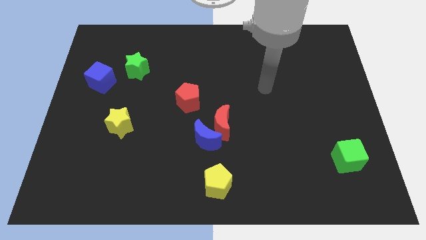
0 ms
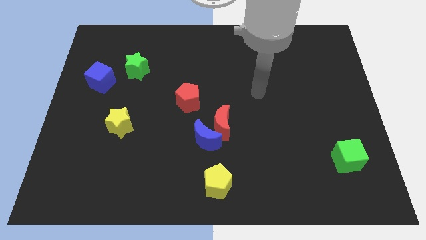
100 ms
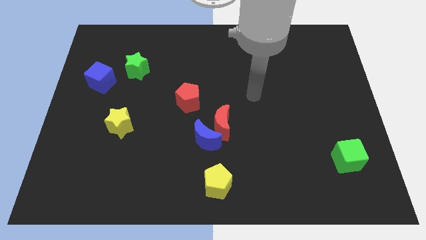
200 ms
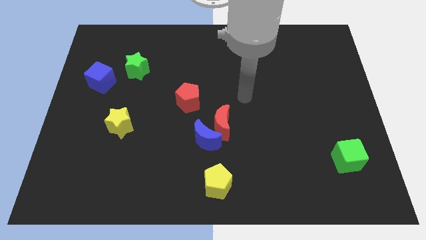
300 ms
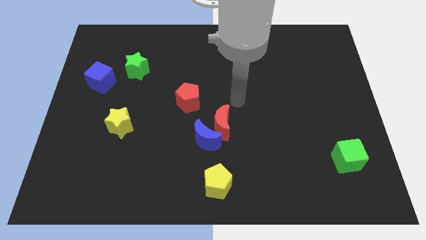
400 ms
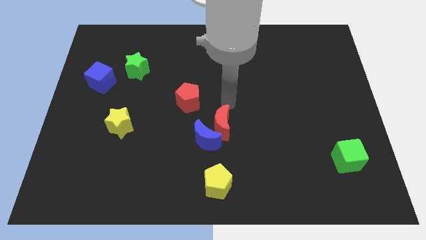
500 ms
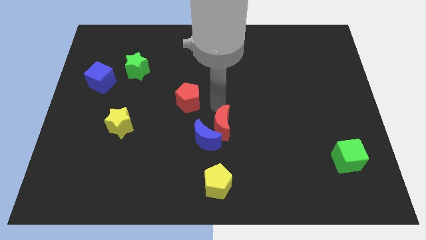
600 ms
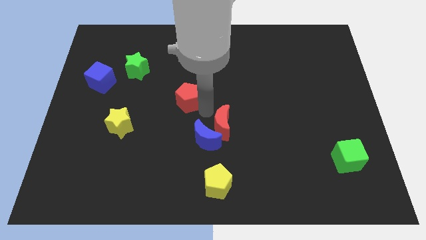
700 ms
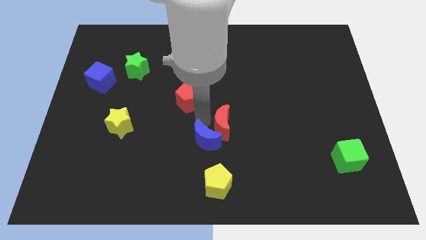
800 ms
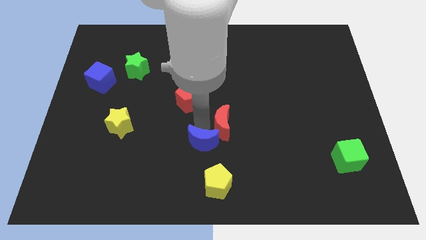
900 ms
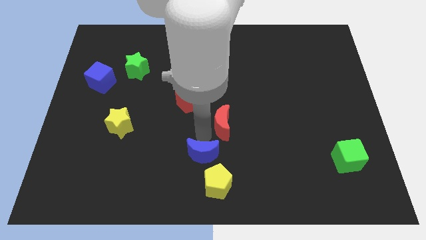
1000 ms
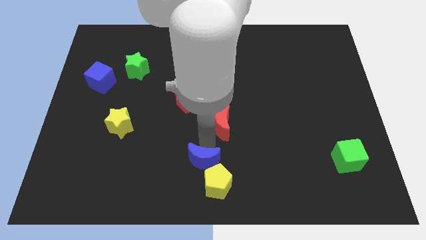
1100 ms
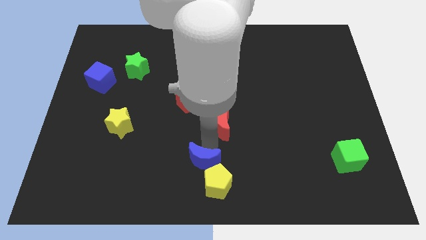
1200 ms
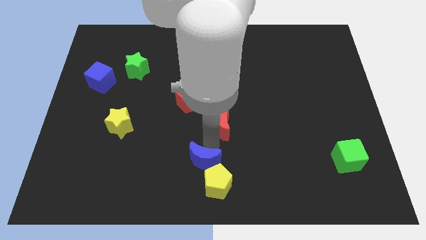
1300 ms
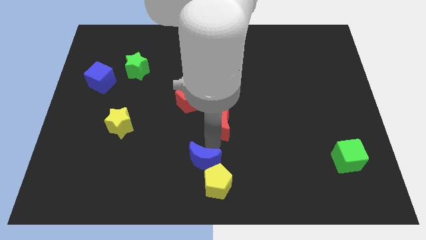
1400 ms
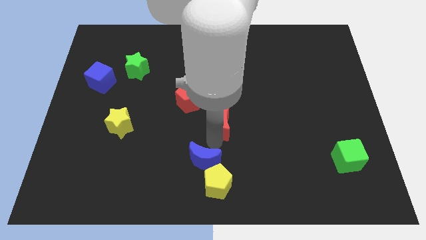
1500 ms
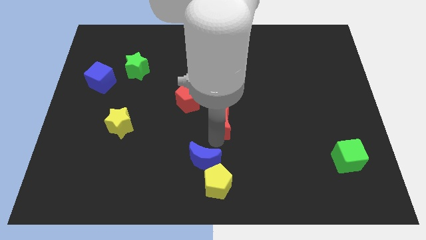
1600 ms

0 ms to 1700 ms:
pull the red moon apart from the blue moon

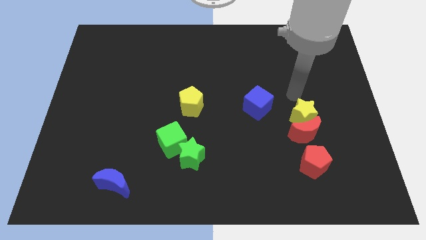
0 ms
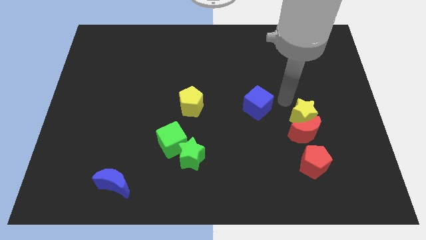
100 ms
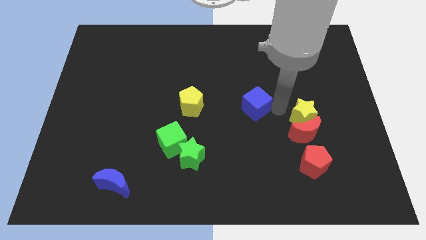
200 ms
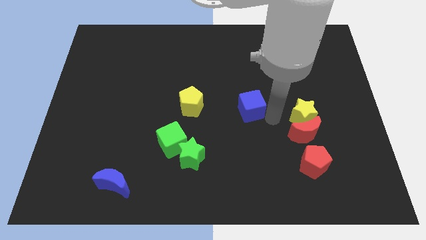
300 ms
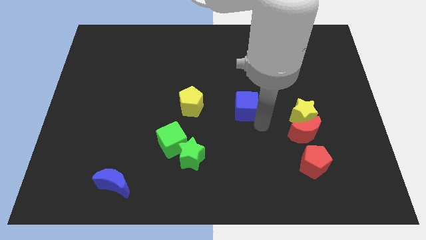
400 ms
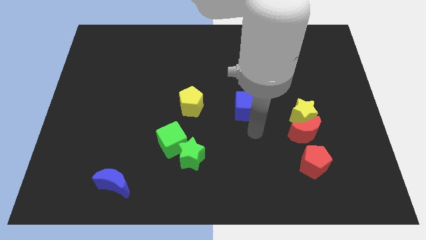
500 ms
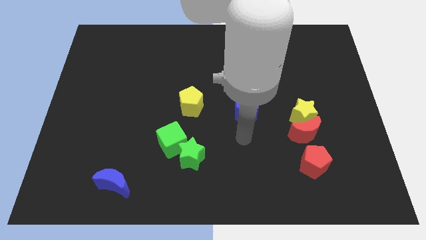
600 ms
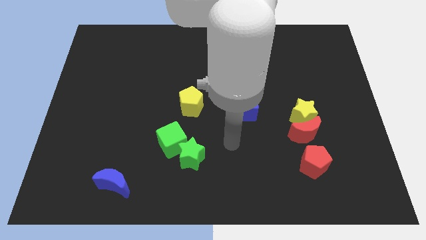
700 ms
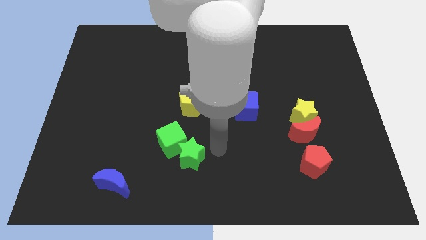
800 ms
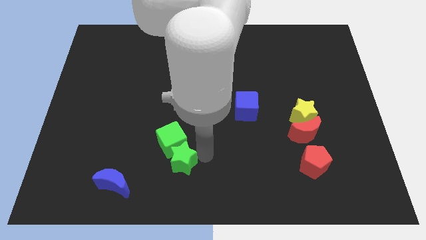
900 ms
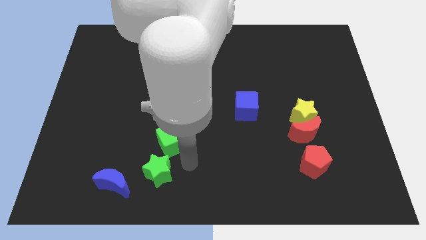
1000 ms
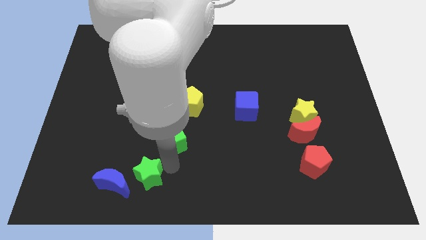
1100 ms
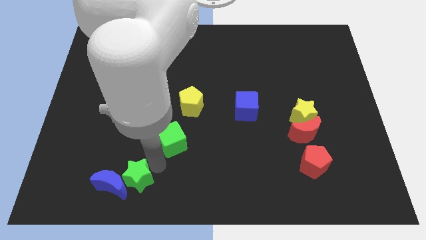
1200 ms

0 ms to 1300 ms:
separate the green cube from the green star

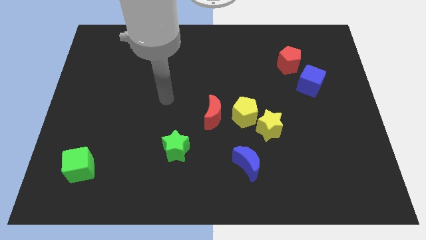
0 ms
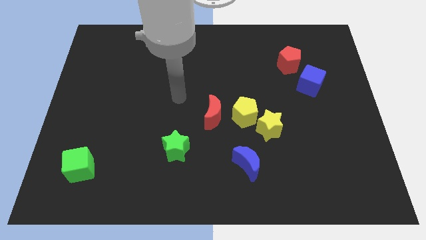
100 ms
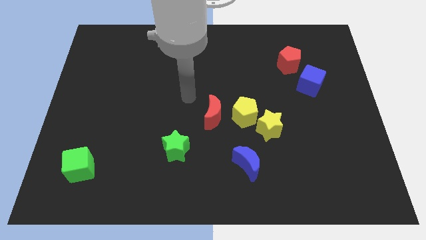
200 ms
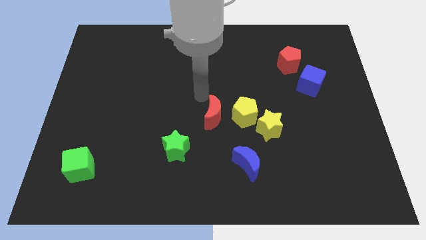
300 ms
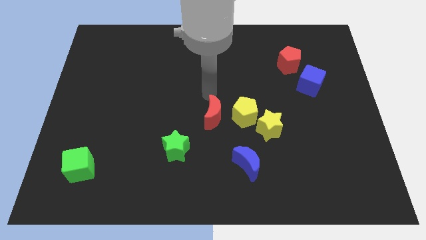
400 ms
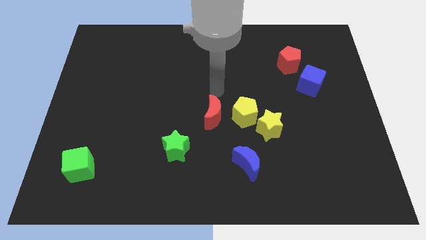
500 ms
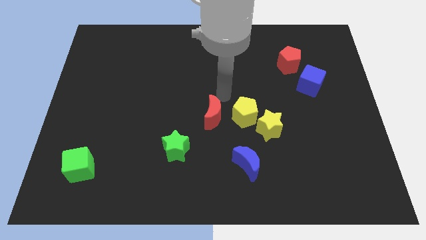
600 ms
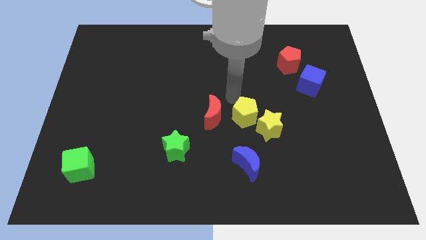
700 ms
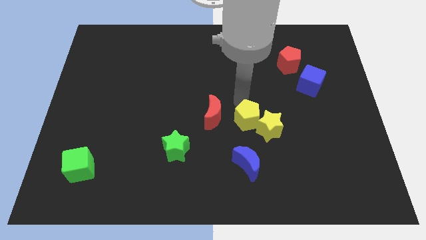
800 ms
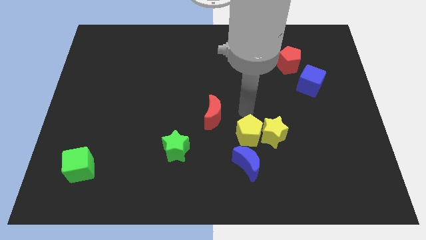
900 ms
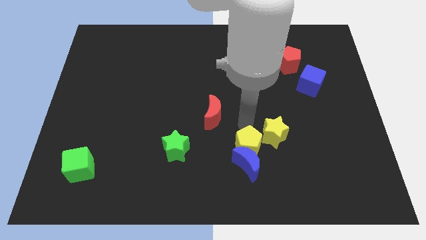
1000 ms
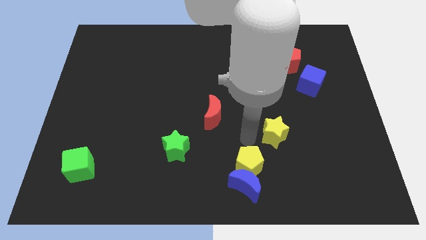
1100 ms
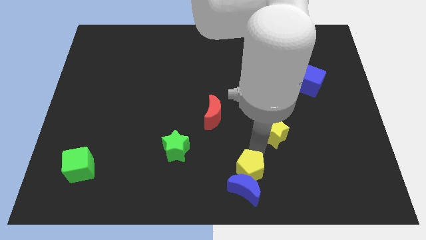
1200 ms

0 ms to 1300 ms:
pull the yellow star apart from the yellow pentagon

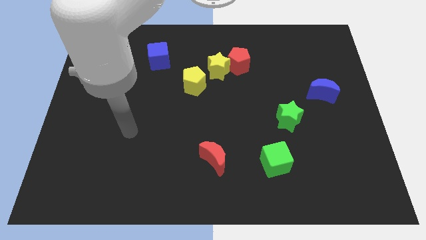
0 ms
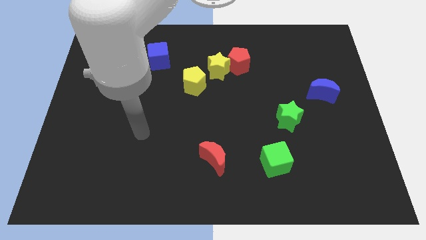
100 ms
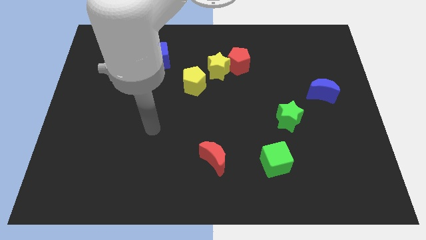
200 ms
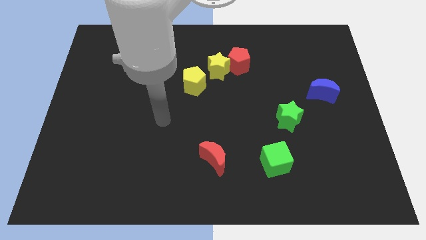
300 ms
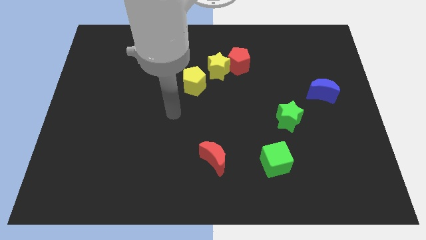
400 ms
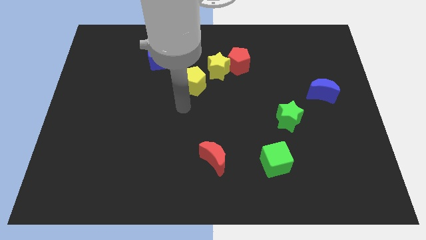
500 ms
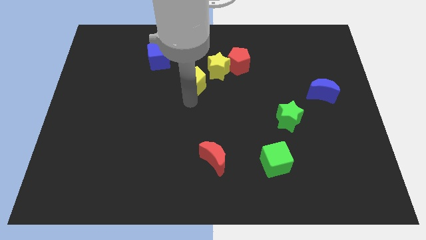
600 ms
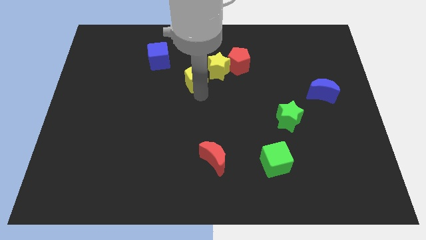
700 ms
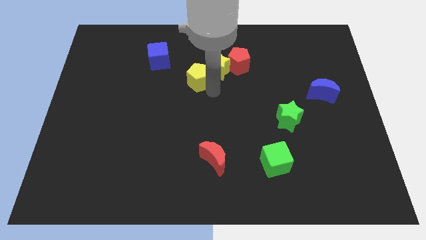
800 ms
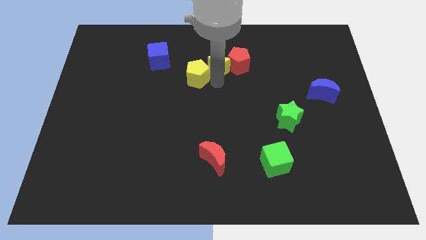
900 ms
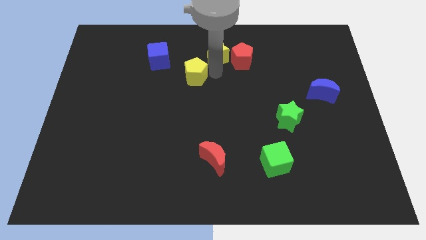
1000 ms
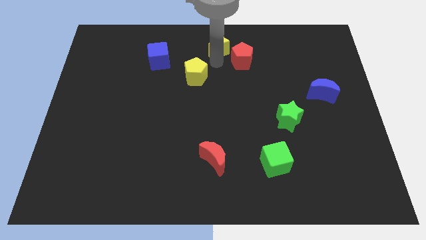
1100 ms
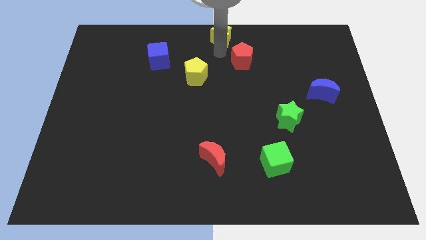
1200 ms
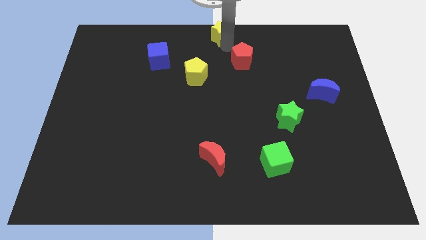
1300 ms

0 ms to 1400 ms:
separate the red pentagon from the yellow star

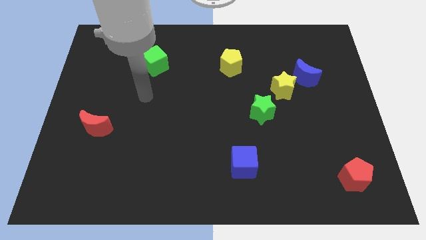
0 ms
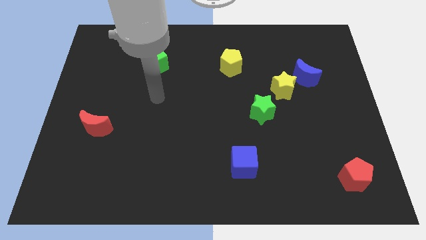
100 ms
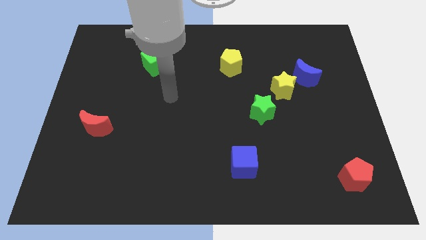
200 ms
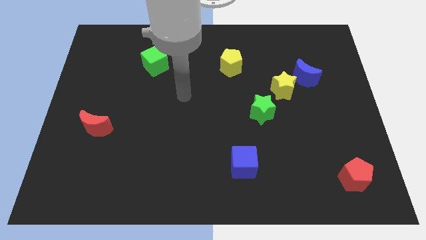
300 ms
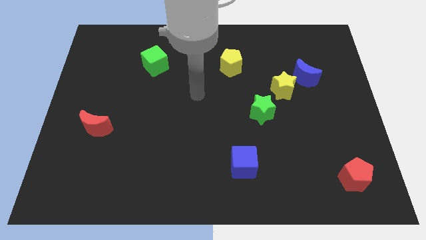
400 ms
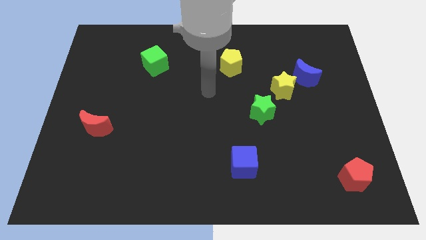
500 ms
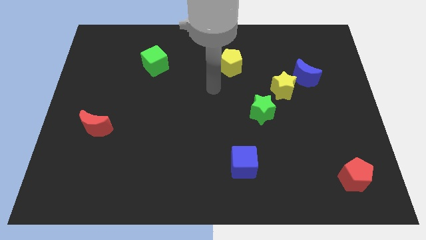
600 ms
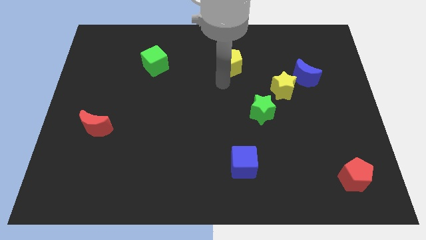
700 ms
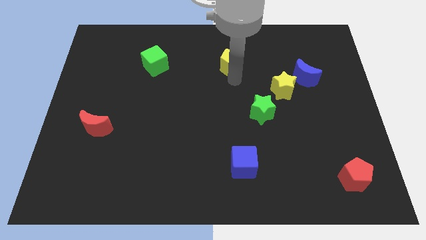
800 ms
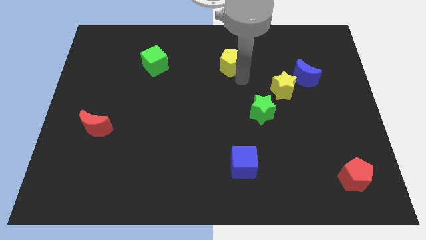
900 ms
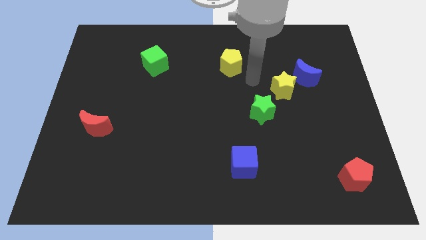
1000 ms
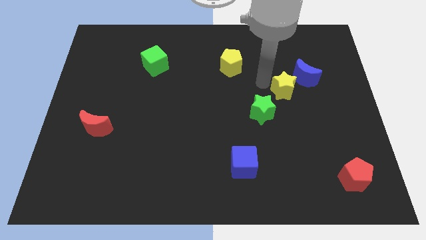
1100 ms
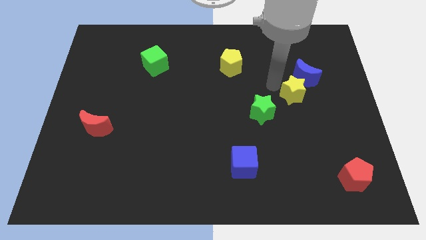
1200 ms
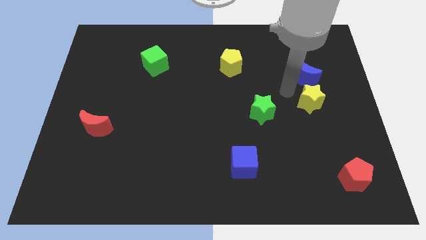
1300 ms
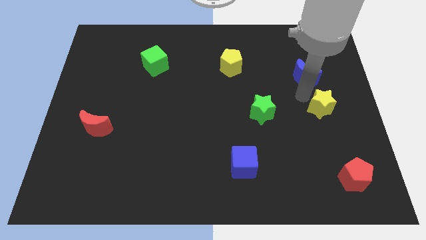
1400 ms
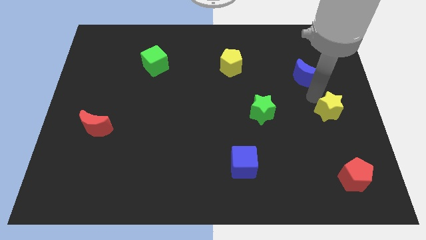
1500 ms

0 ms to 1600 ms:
pull the blue moon apart from the yellow star

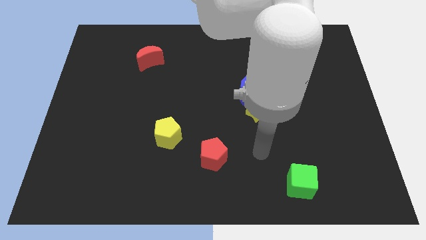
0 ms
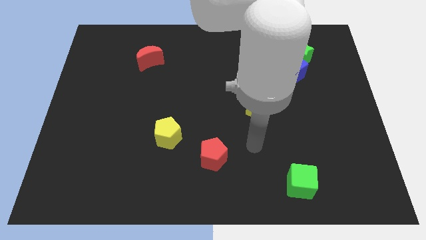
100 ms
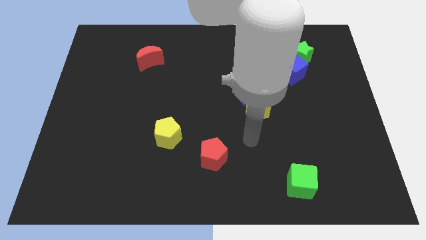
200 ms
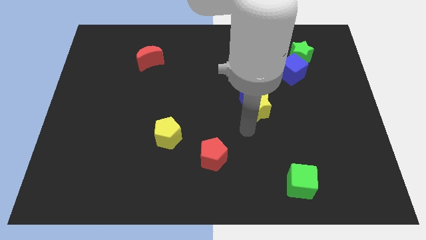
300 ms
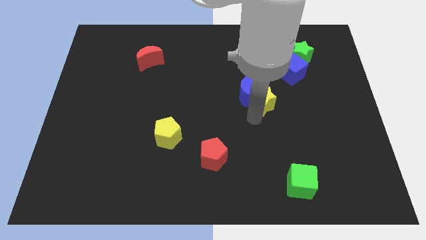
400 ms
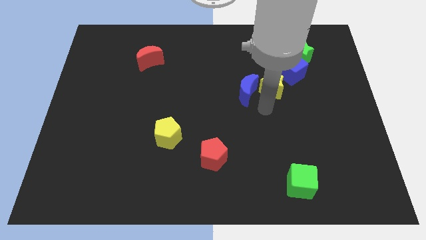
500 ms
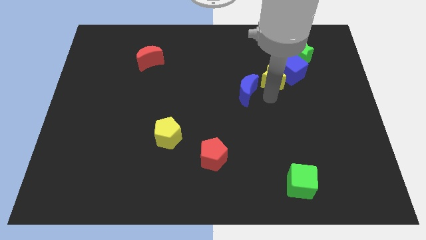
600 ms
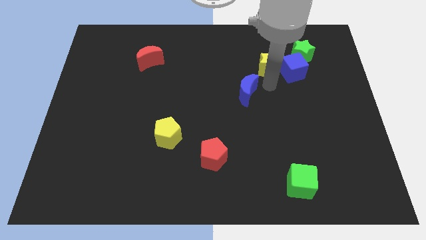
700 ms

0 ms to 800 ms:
move the blue moon away from the yellow star

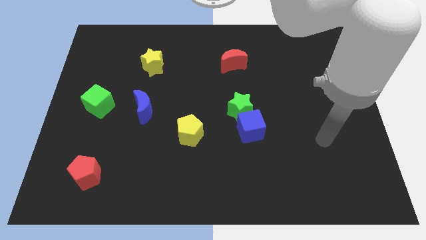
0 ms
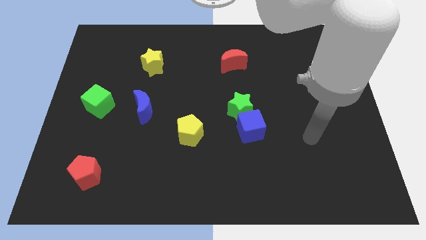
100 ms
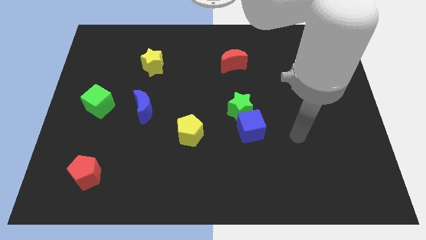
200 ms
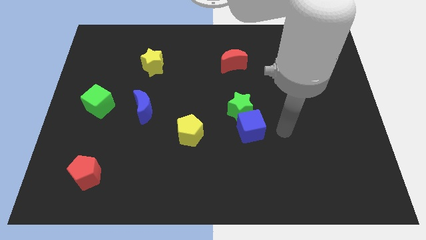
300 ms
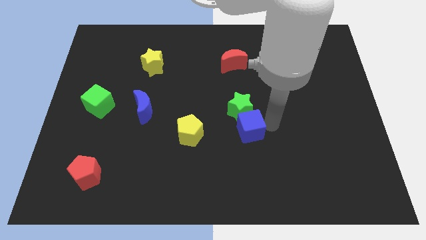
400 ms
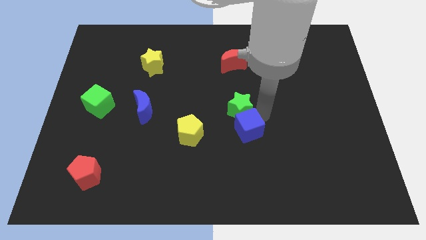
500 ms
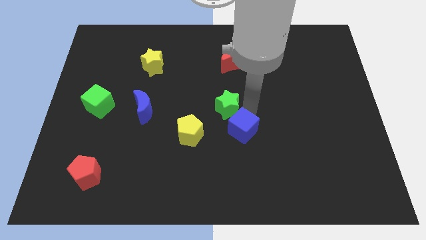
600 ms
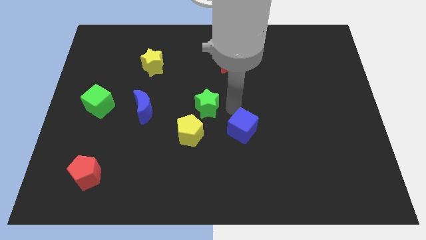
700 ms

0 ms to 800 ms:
pull the blue cube apart from the green star

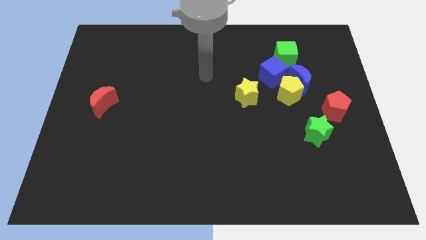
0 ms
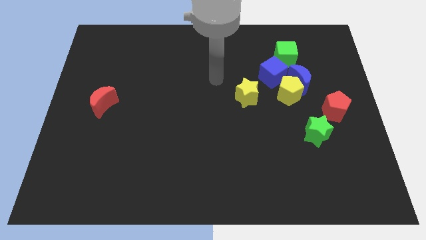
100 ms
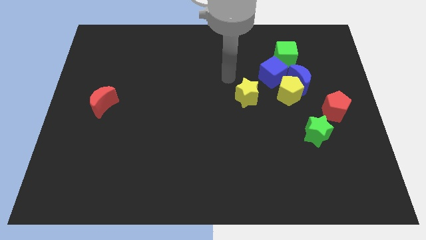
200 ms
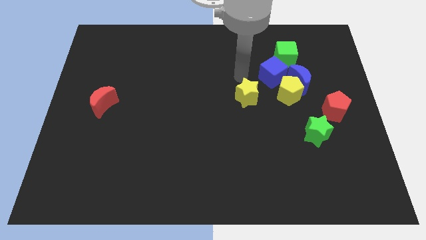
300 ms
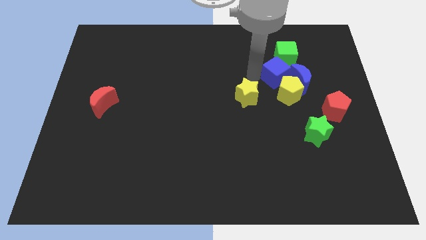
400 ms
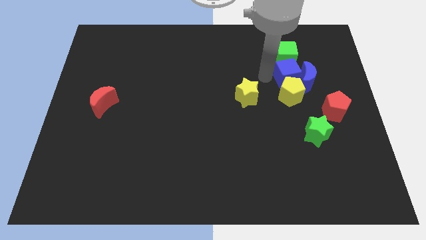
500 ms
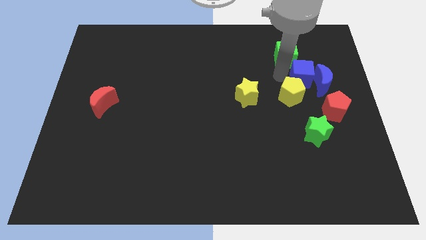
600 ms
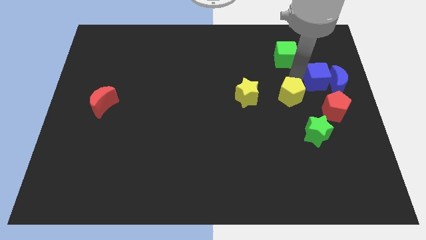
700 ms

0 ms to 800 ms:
separate the yellow pentagon from the blue moon and blue cube
